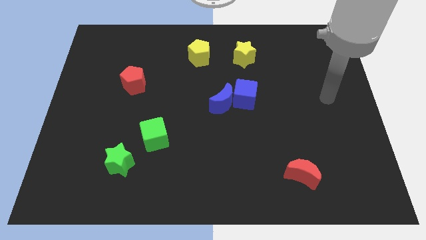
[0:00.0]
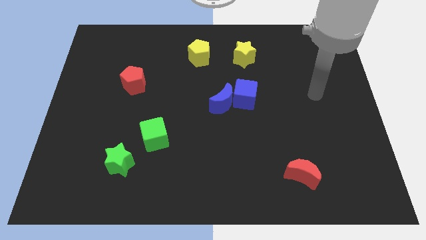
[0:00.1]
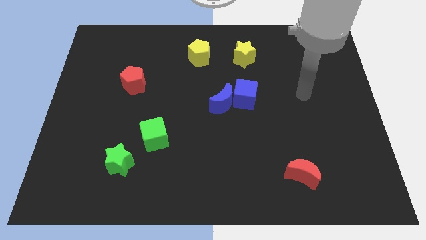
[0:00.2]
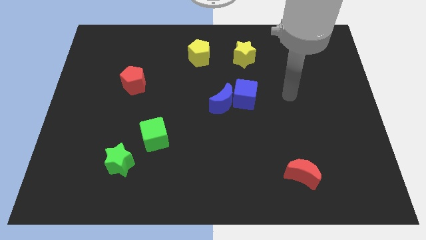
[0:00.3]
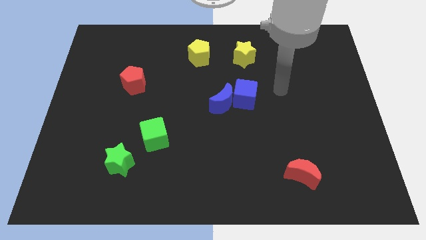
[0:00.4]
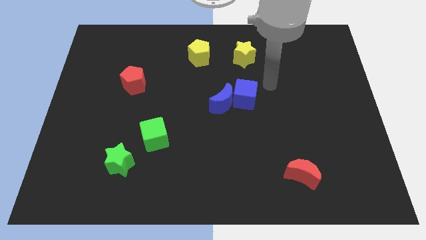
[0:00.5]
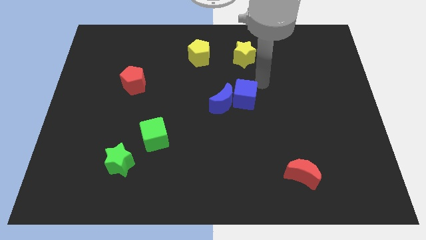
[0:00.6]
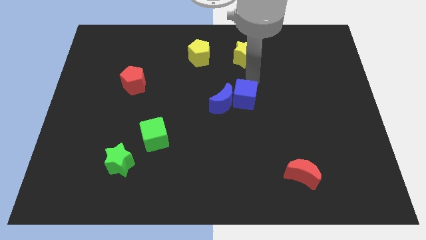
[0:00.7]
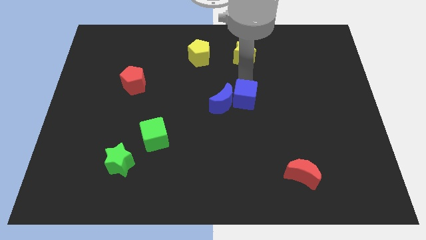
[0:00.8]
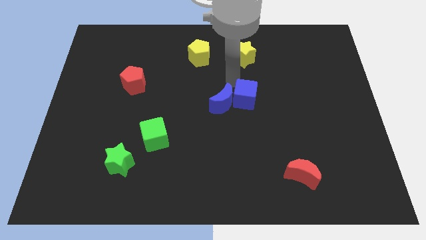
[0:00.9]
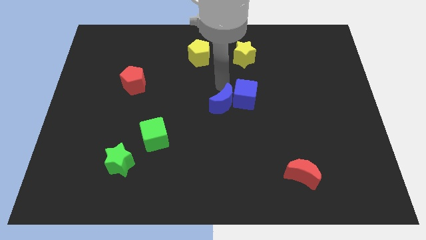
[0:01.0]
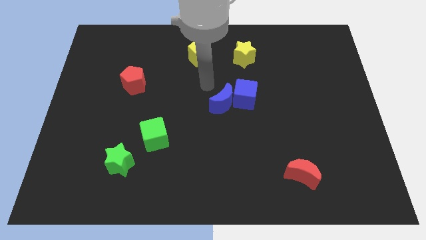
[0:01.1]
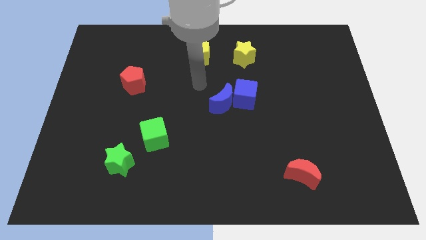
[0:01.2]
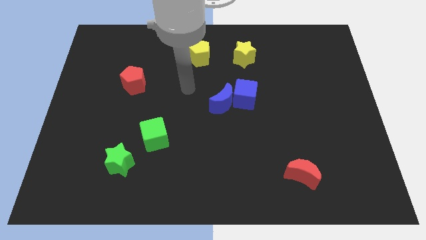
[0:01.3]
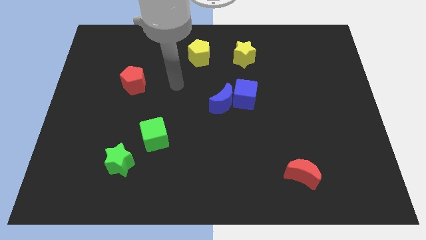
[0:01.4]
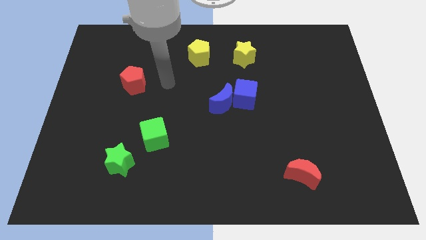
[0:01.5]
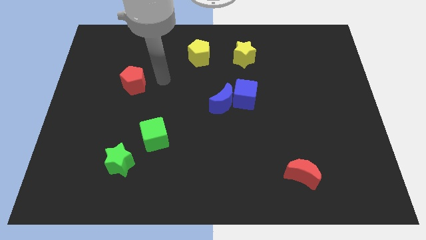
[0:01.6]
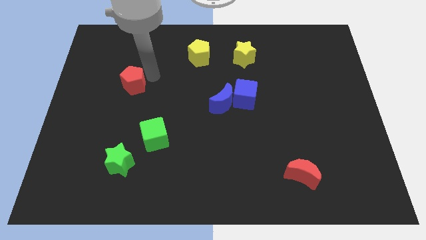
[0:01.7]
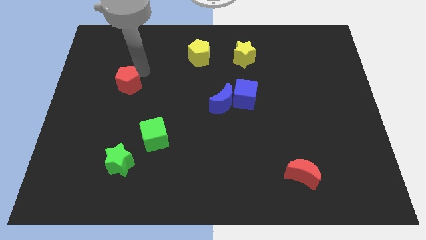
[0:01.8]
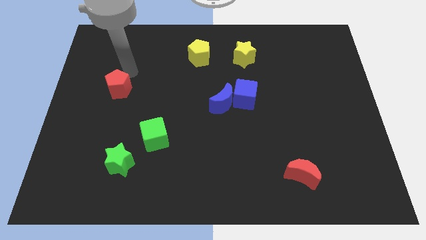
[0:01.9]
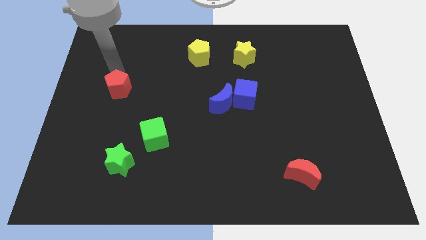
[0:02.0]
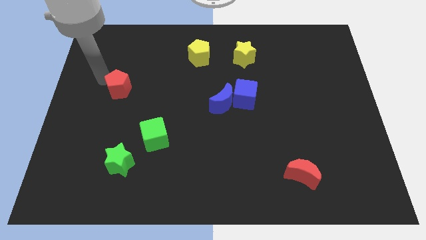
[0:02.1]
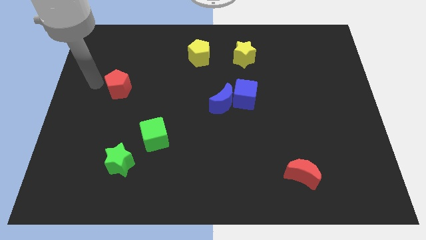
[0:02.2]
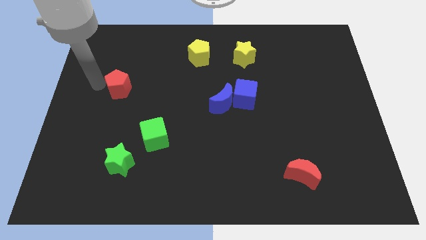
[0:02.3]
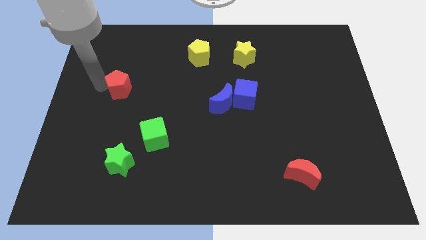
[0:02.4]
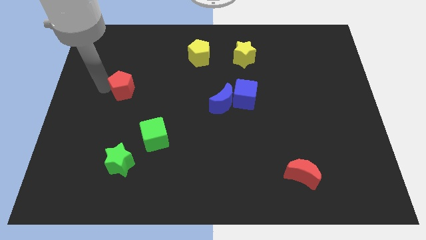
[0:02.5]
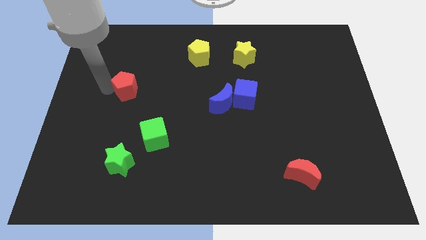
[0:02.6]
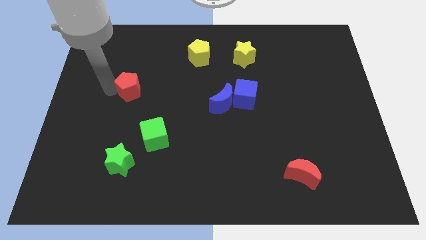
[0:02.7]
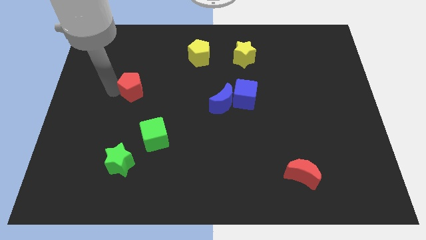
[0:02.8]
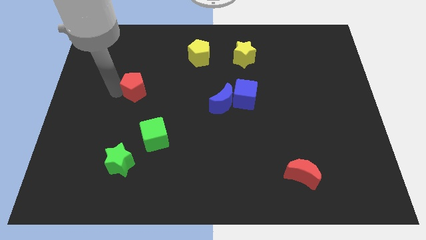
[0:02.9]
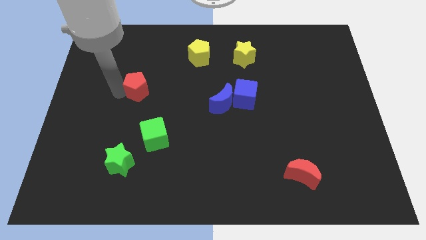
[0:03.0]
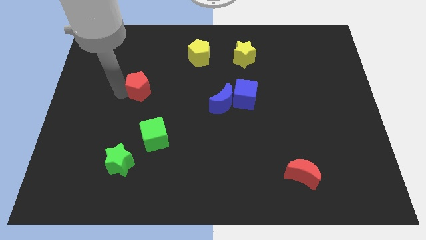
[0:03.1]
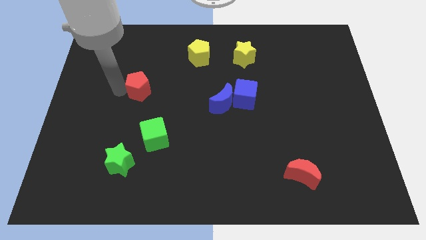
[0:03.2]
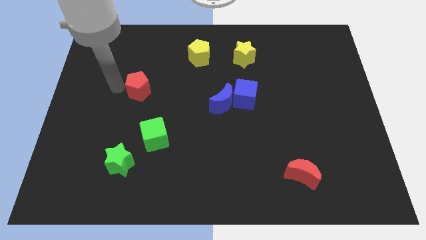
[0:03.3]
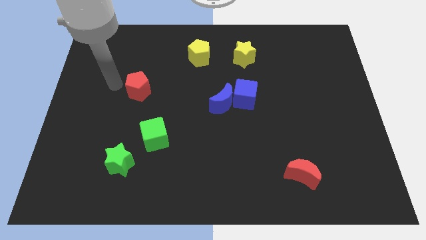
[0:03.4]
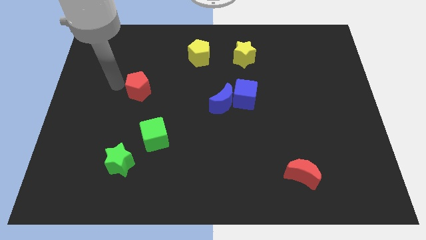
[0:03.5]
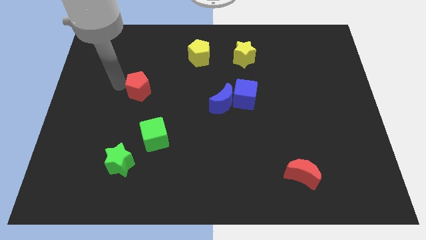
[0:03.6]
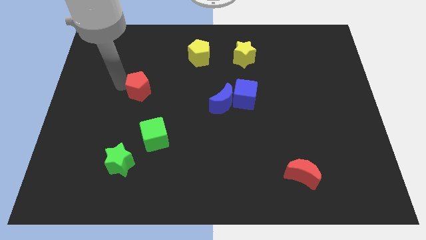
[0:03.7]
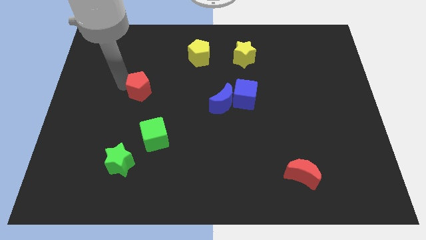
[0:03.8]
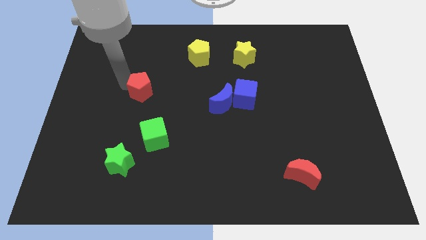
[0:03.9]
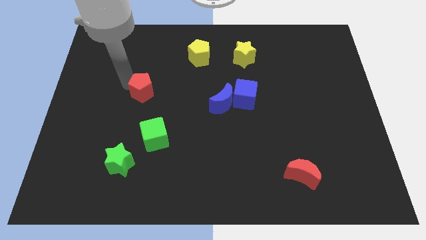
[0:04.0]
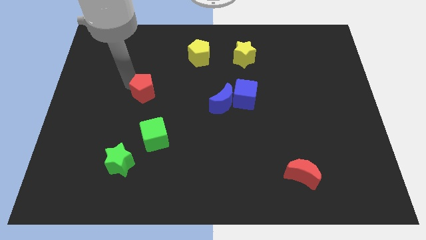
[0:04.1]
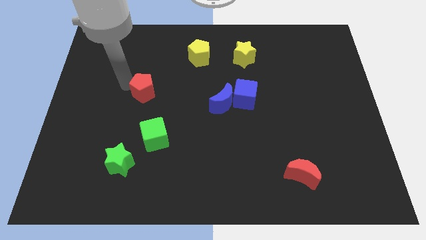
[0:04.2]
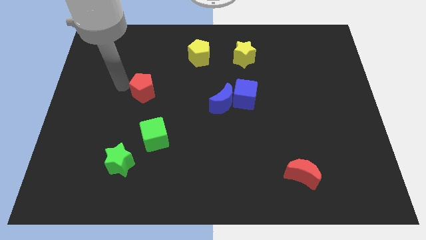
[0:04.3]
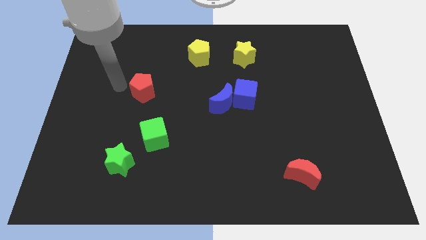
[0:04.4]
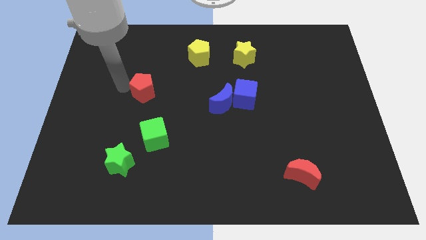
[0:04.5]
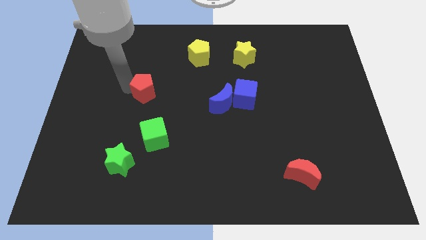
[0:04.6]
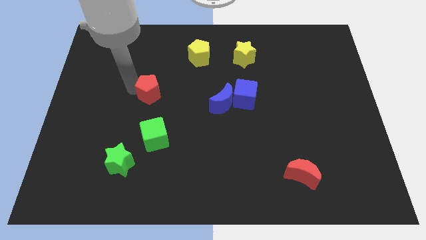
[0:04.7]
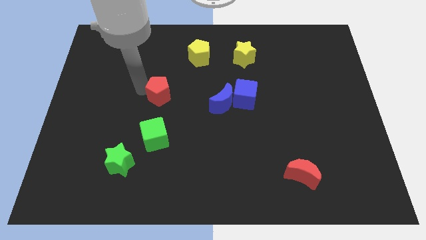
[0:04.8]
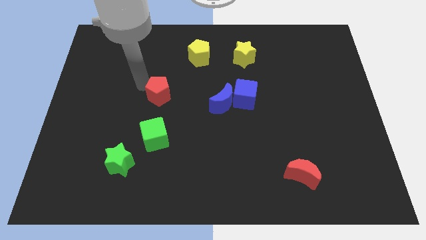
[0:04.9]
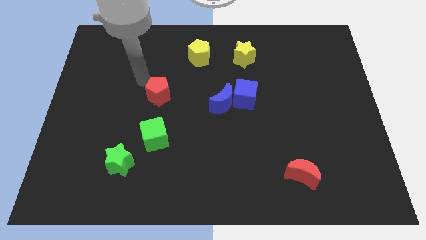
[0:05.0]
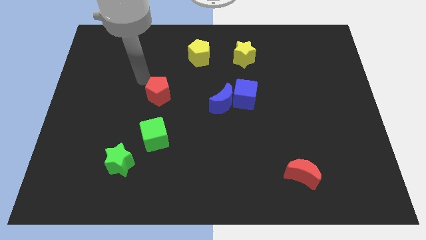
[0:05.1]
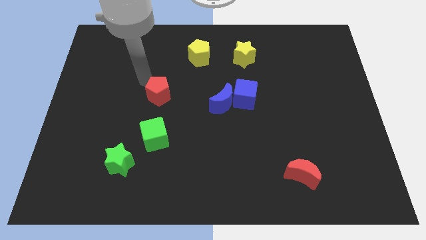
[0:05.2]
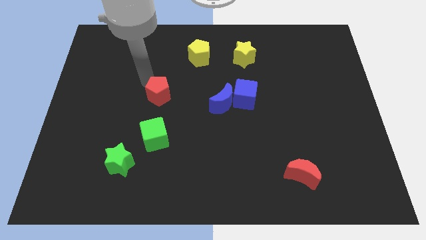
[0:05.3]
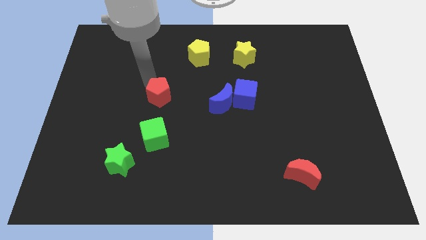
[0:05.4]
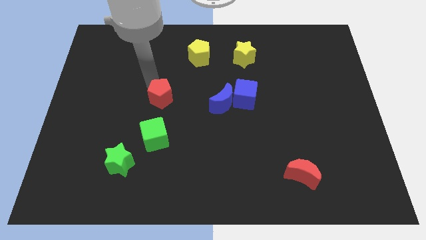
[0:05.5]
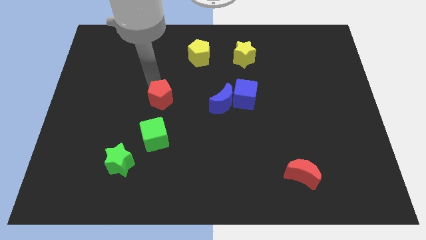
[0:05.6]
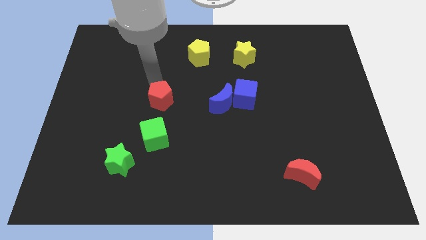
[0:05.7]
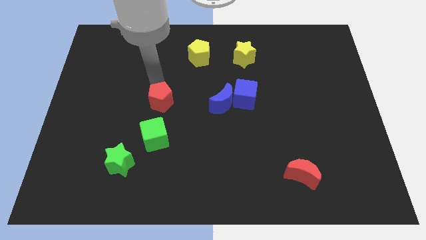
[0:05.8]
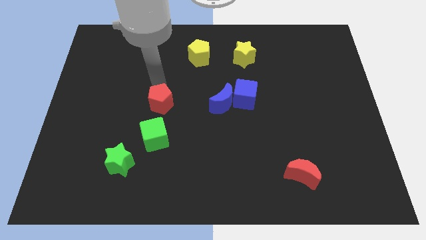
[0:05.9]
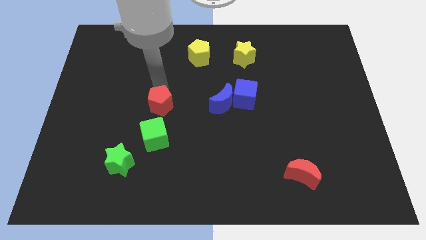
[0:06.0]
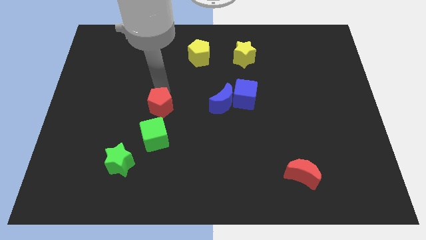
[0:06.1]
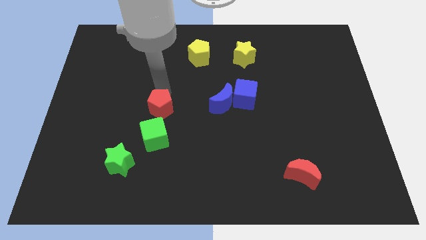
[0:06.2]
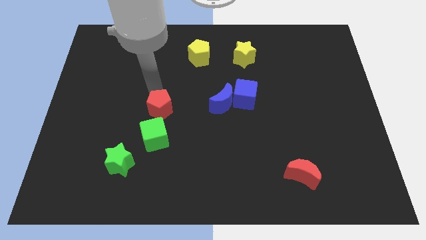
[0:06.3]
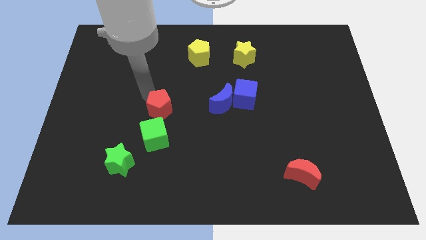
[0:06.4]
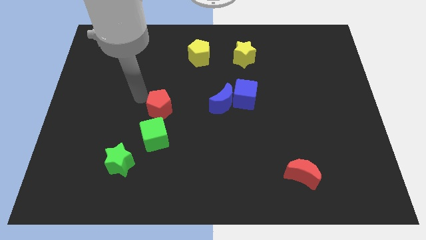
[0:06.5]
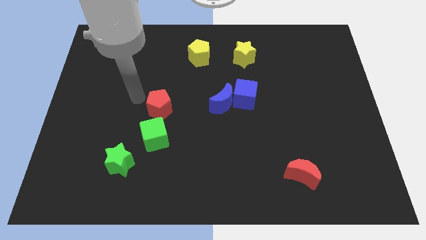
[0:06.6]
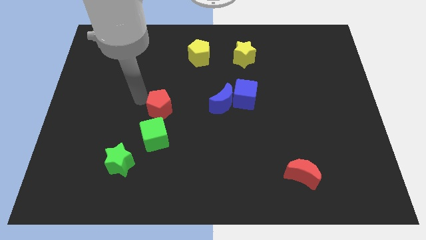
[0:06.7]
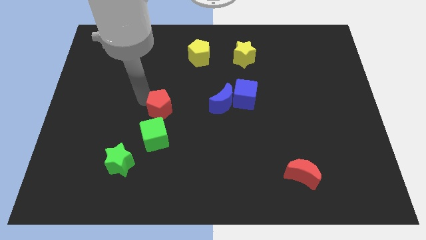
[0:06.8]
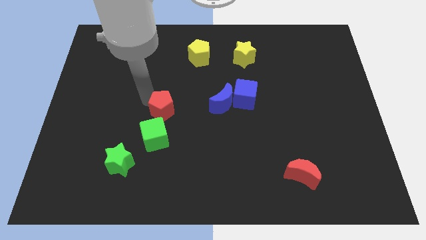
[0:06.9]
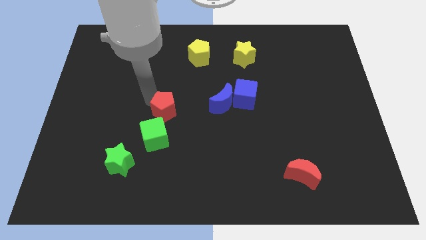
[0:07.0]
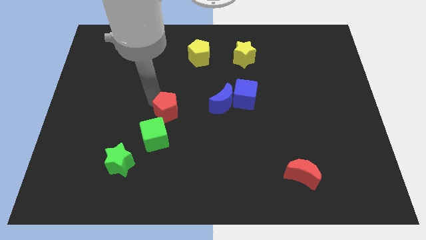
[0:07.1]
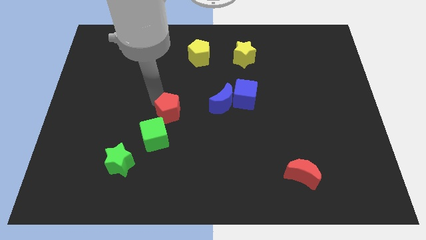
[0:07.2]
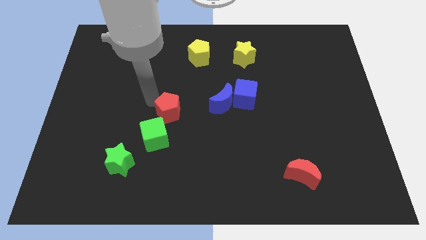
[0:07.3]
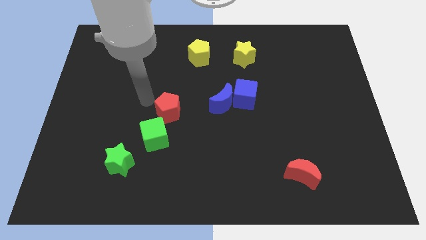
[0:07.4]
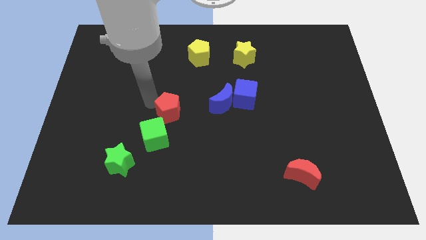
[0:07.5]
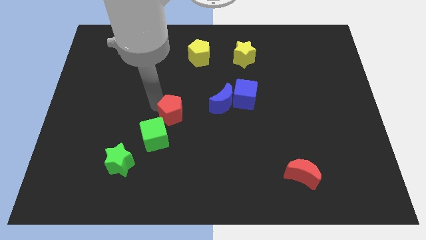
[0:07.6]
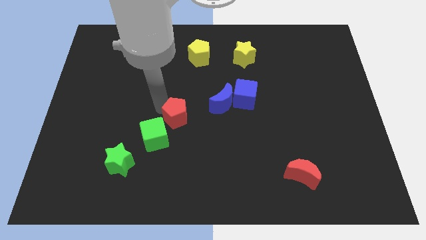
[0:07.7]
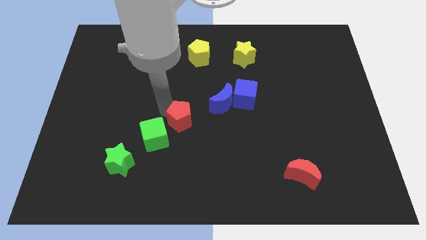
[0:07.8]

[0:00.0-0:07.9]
put the red pentagon to the right of the green cube
